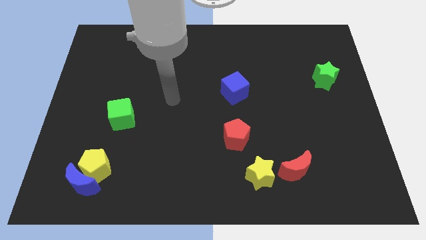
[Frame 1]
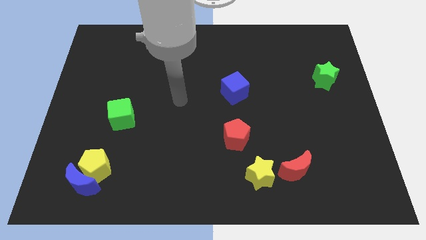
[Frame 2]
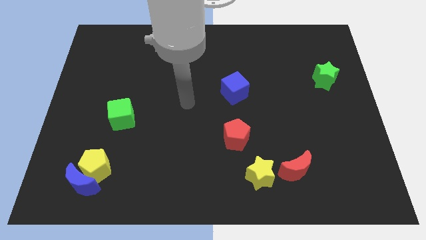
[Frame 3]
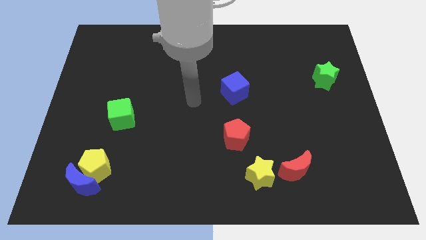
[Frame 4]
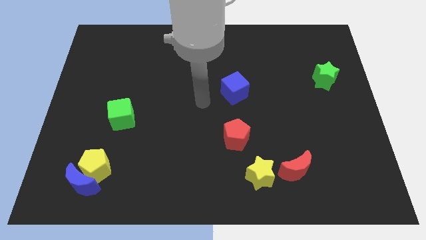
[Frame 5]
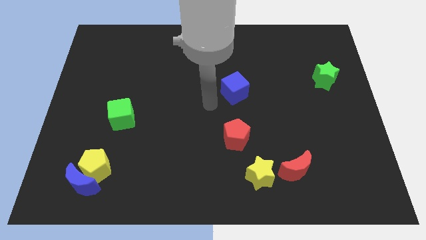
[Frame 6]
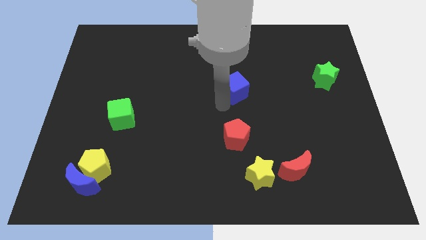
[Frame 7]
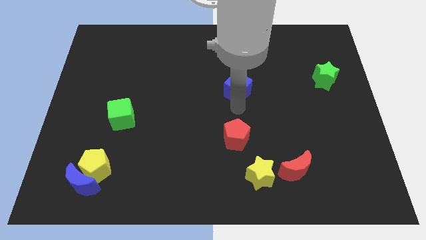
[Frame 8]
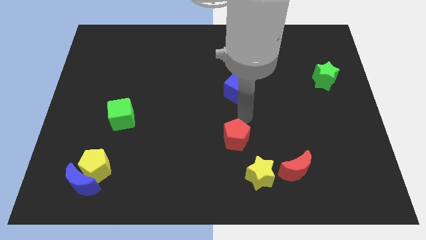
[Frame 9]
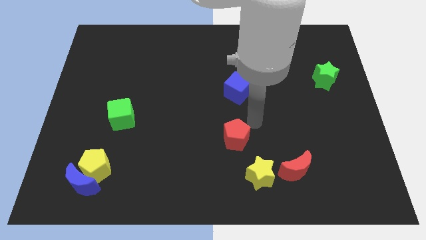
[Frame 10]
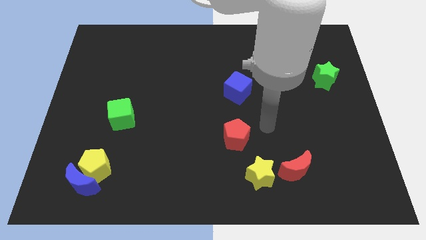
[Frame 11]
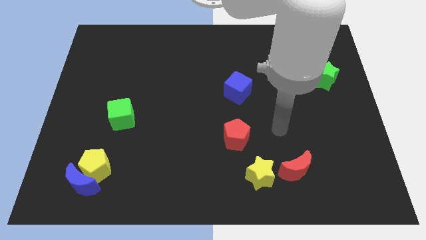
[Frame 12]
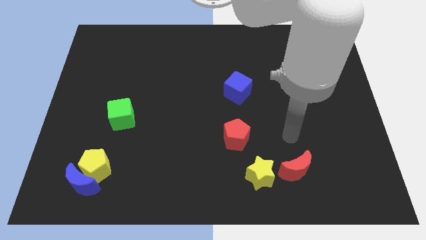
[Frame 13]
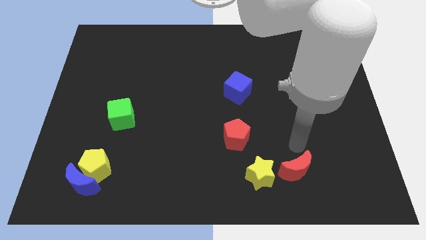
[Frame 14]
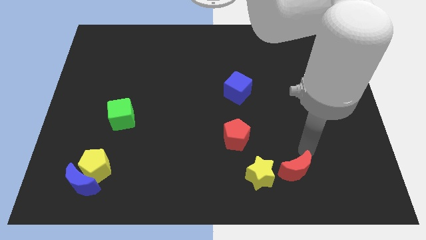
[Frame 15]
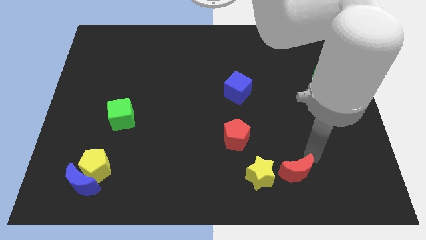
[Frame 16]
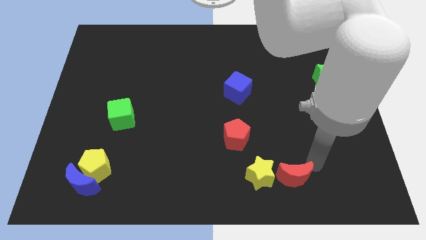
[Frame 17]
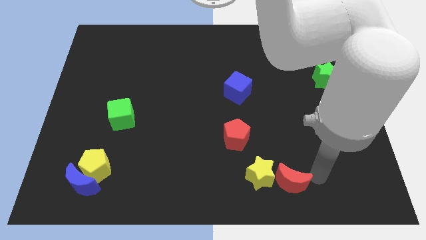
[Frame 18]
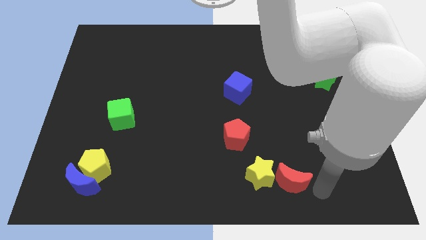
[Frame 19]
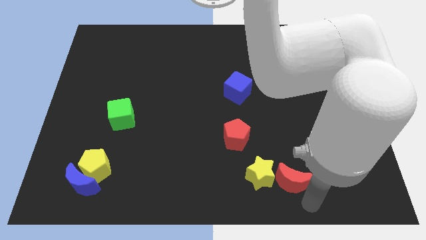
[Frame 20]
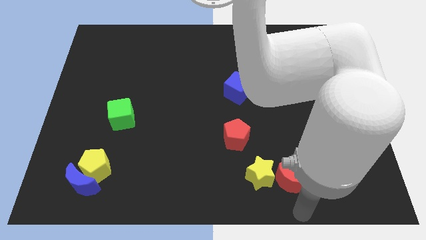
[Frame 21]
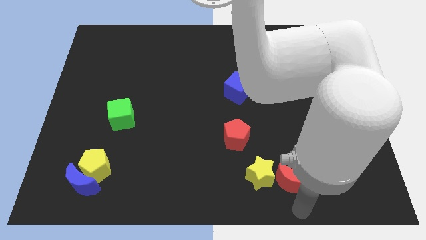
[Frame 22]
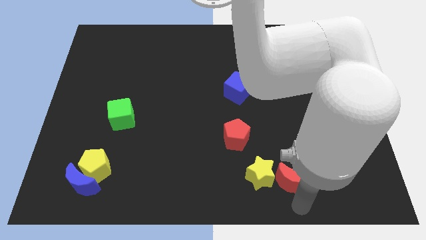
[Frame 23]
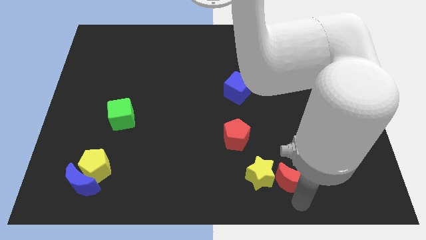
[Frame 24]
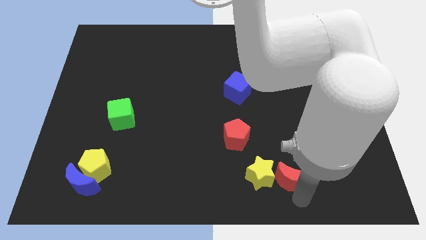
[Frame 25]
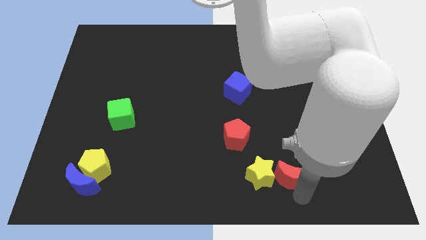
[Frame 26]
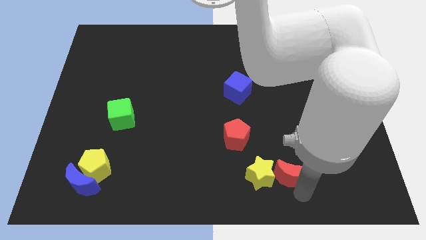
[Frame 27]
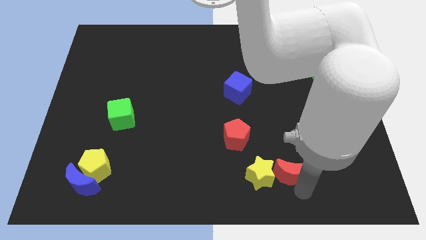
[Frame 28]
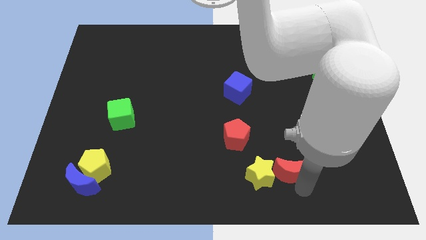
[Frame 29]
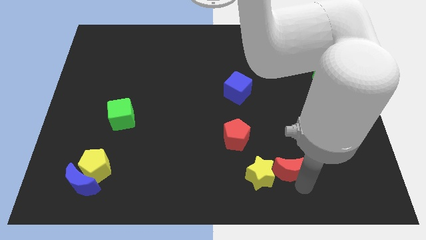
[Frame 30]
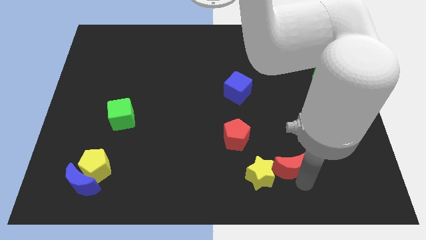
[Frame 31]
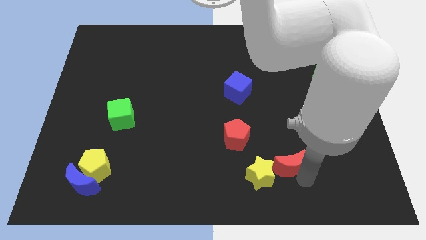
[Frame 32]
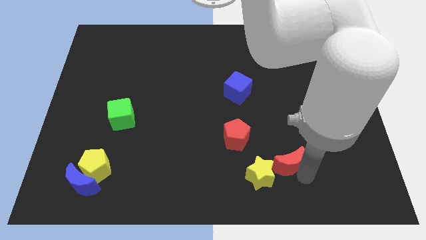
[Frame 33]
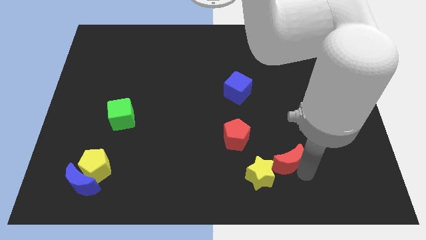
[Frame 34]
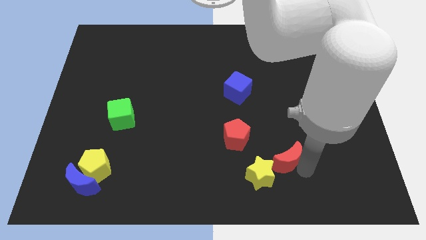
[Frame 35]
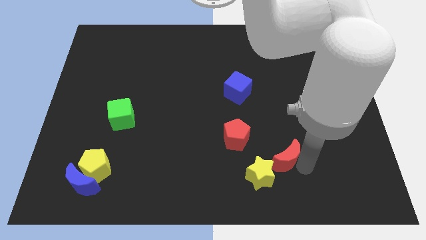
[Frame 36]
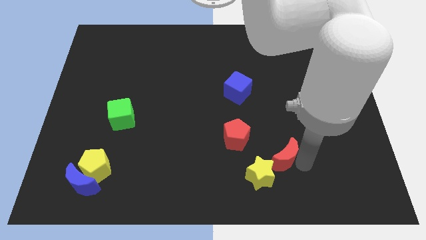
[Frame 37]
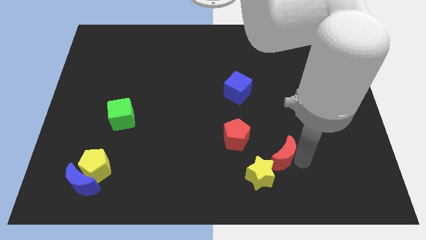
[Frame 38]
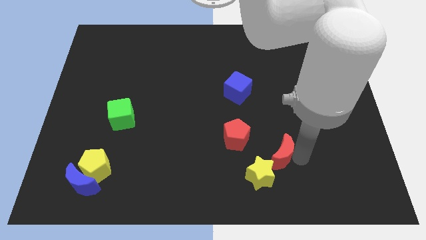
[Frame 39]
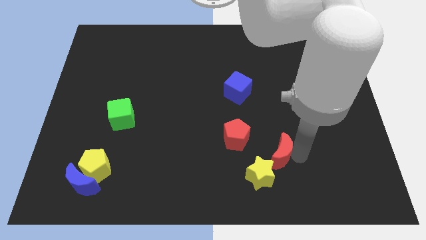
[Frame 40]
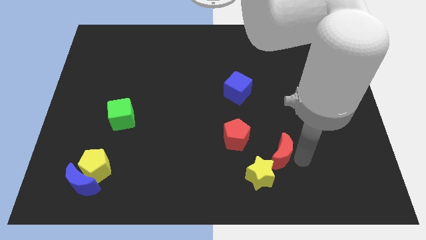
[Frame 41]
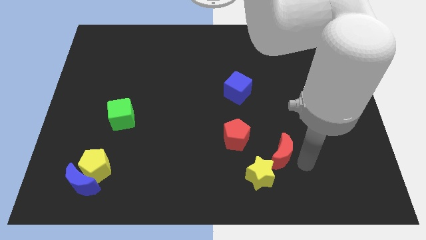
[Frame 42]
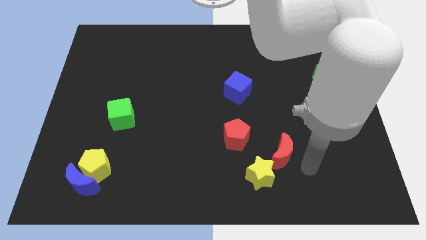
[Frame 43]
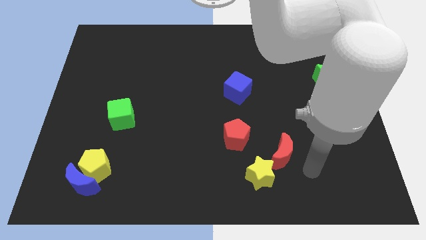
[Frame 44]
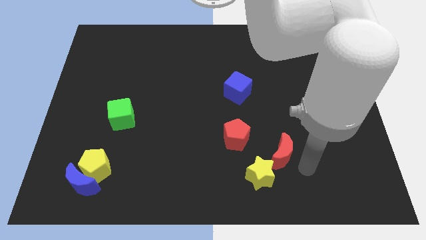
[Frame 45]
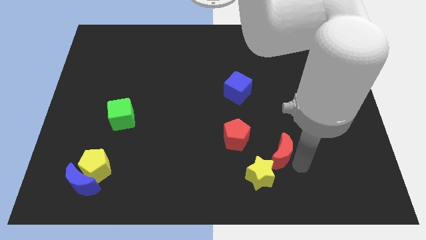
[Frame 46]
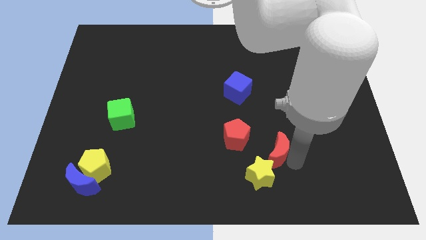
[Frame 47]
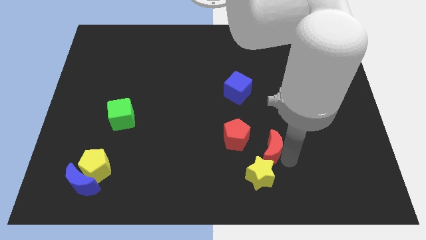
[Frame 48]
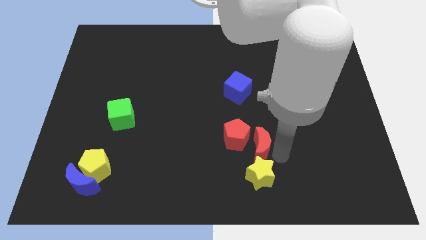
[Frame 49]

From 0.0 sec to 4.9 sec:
put the red moon close to the red pentagon

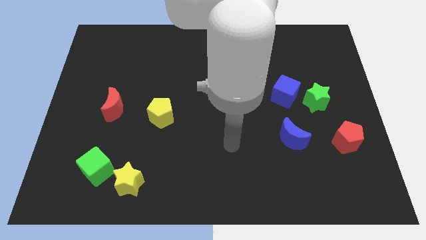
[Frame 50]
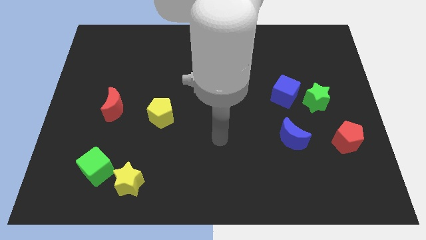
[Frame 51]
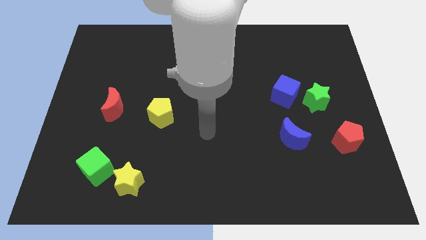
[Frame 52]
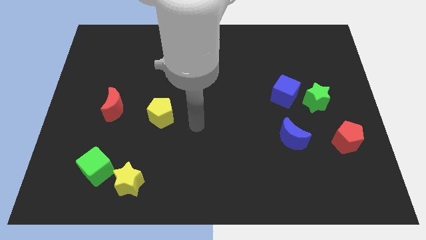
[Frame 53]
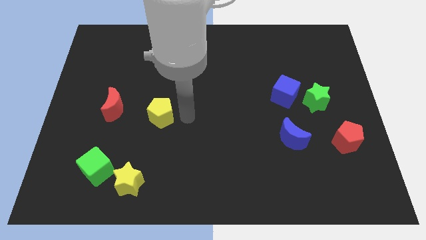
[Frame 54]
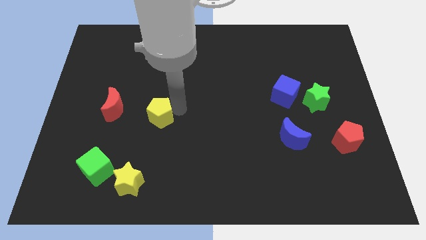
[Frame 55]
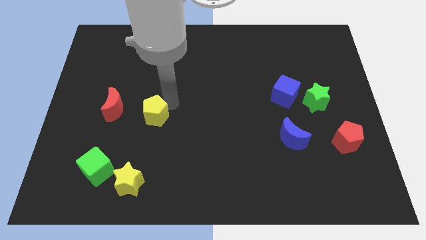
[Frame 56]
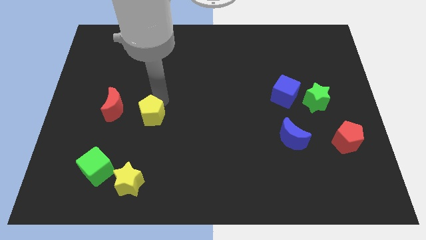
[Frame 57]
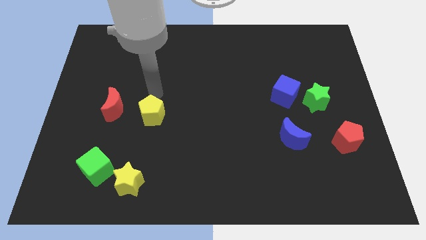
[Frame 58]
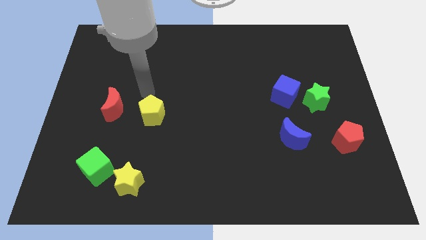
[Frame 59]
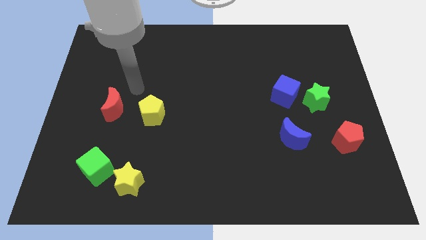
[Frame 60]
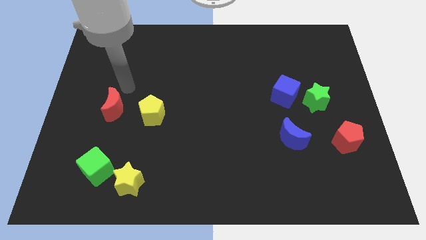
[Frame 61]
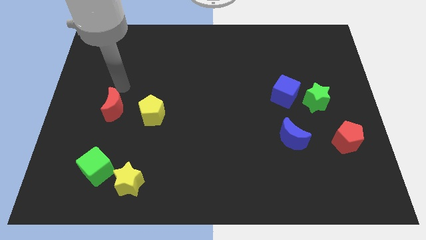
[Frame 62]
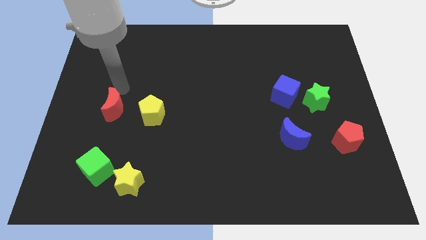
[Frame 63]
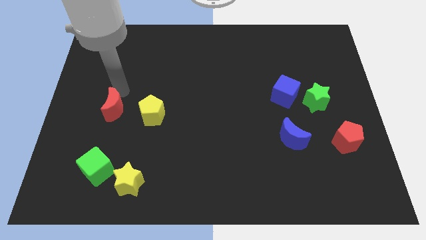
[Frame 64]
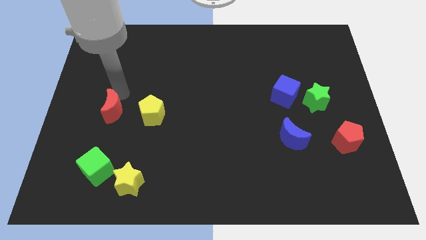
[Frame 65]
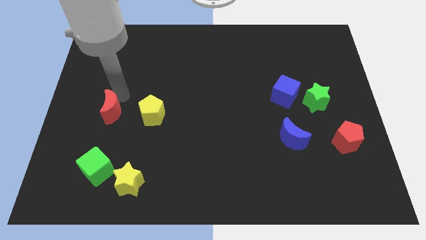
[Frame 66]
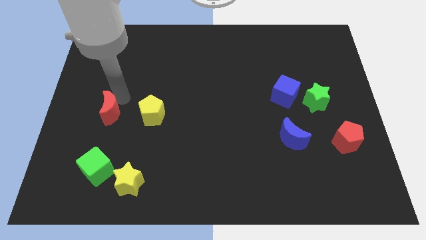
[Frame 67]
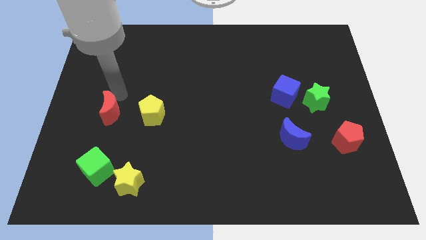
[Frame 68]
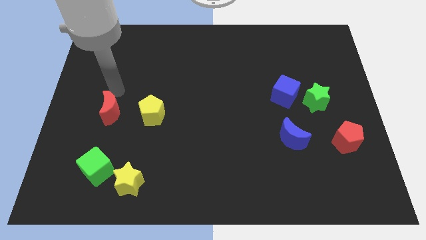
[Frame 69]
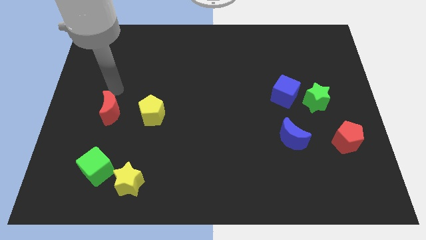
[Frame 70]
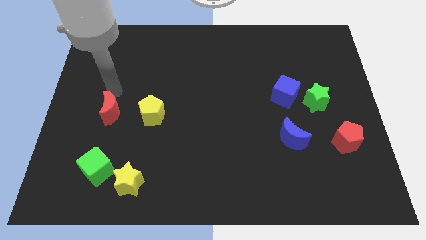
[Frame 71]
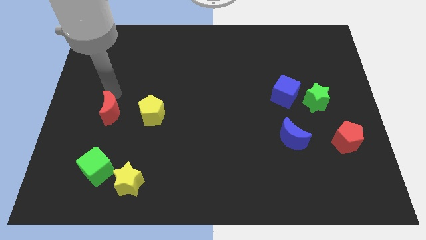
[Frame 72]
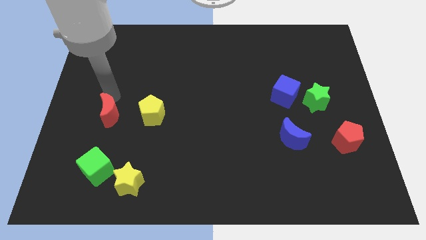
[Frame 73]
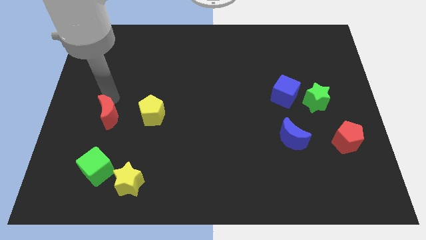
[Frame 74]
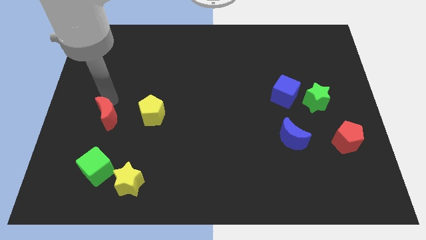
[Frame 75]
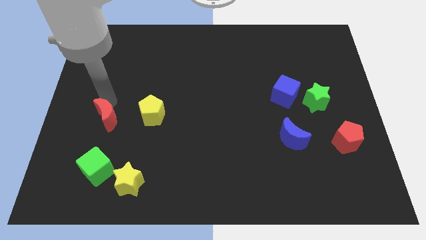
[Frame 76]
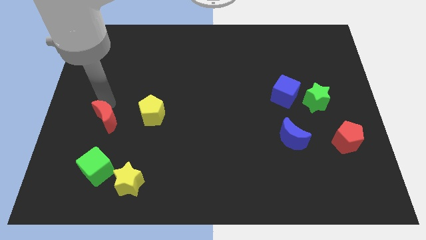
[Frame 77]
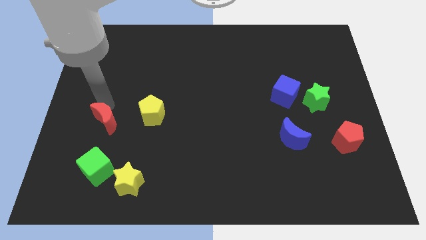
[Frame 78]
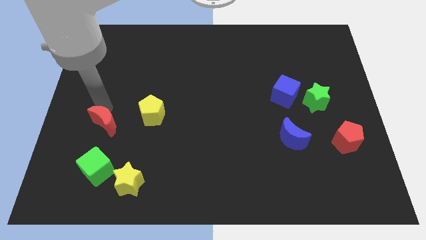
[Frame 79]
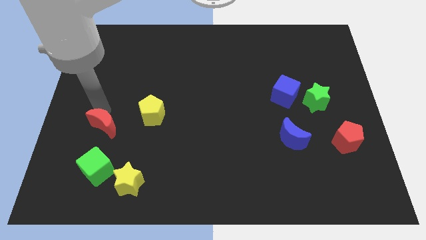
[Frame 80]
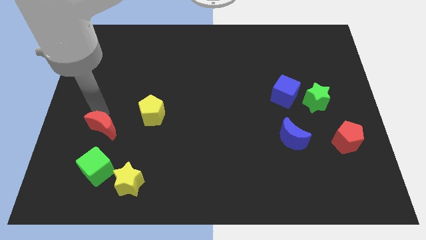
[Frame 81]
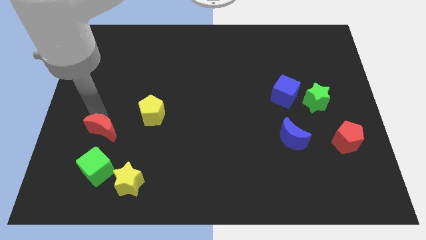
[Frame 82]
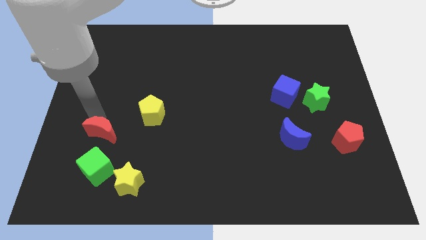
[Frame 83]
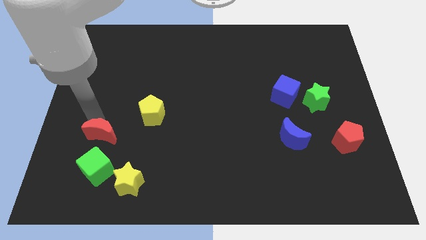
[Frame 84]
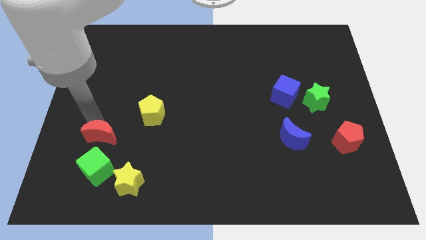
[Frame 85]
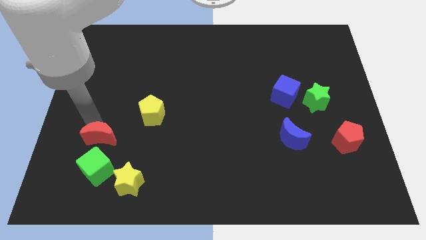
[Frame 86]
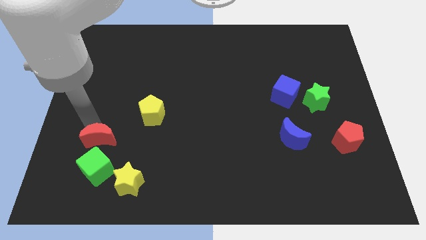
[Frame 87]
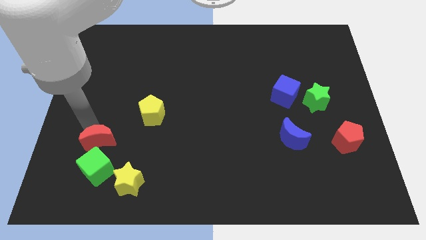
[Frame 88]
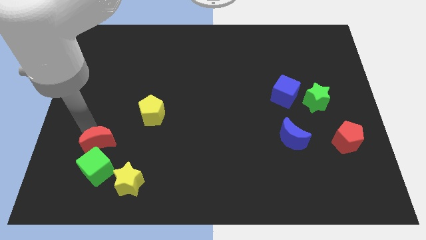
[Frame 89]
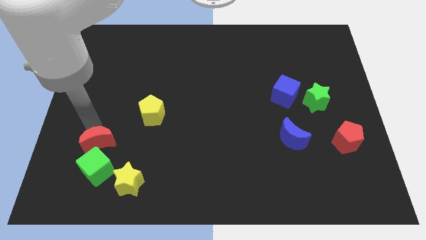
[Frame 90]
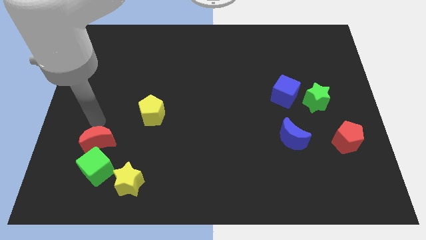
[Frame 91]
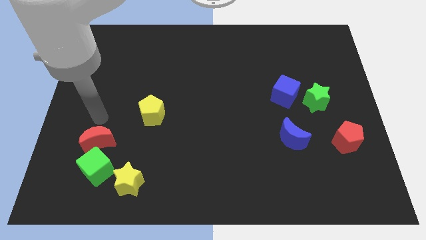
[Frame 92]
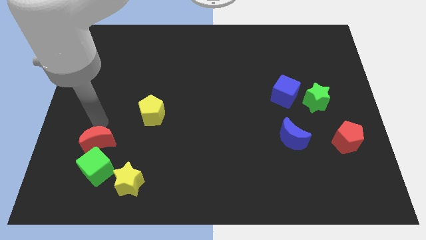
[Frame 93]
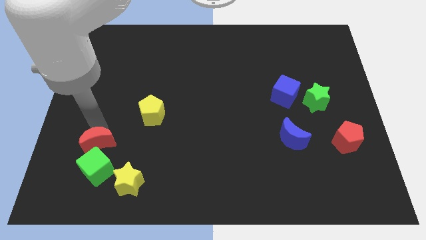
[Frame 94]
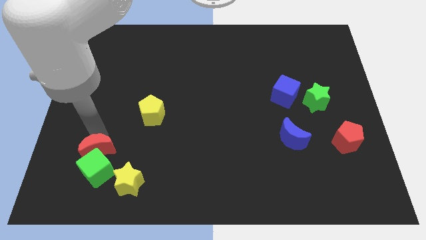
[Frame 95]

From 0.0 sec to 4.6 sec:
put the red moon next to the green cube
